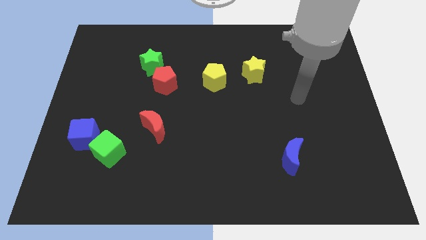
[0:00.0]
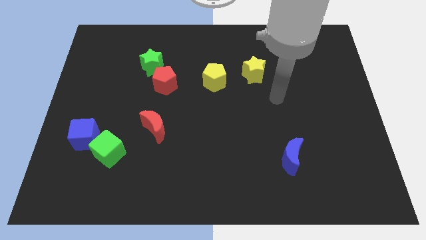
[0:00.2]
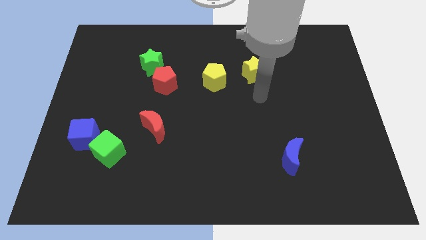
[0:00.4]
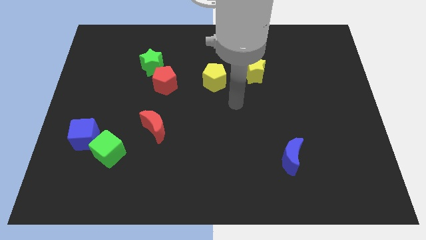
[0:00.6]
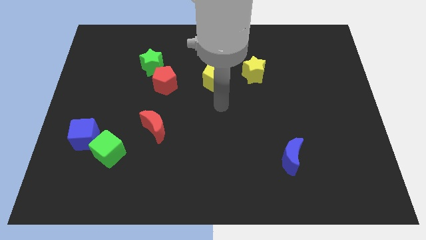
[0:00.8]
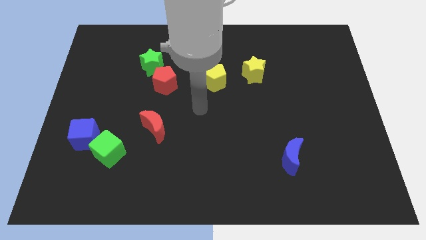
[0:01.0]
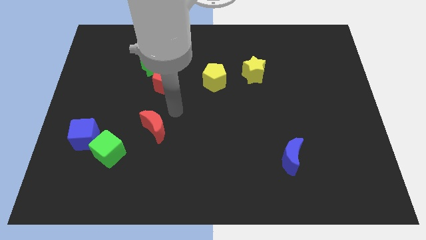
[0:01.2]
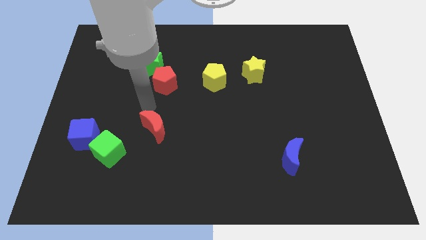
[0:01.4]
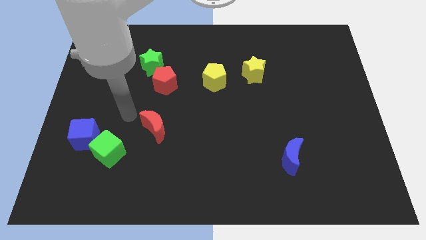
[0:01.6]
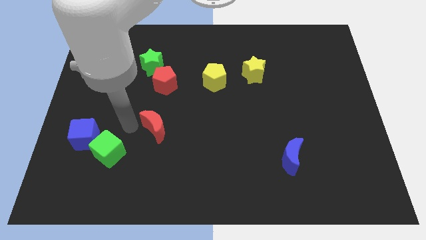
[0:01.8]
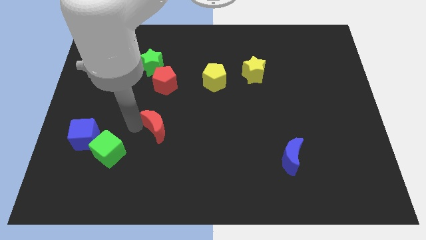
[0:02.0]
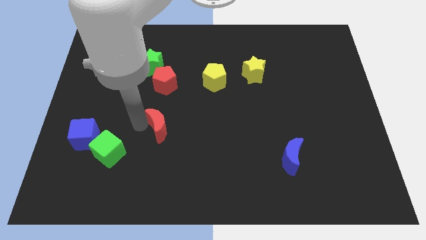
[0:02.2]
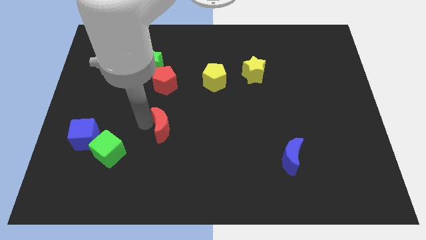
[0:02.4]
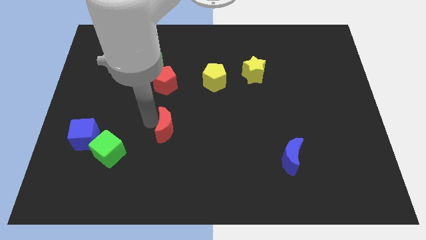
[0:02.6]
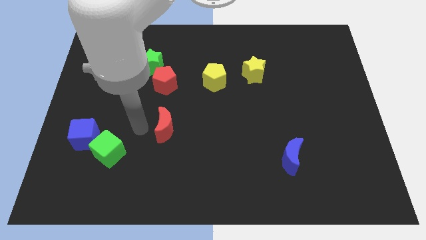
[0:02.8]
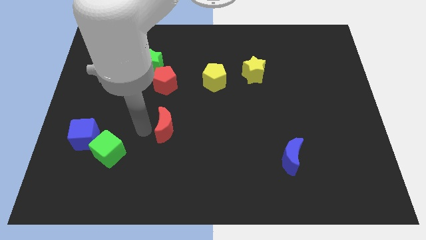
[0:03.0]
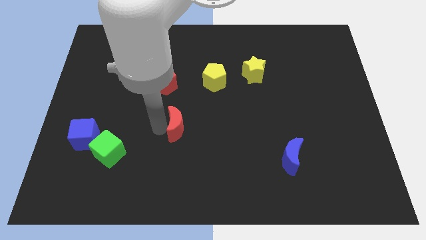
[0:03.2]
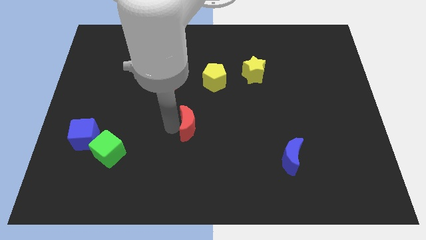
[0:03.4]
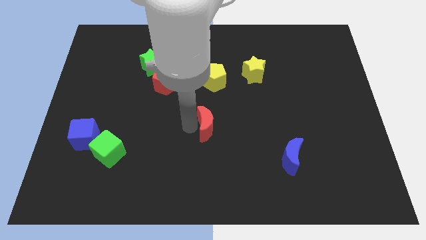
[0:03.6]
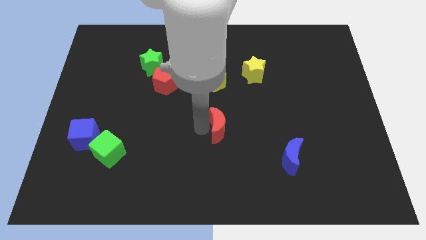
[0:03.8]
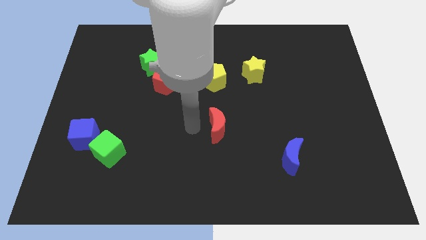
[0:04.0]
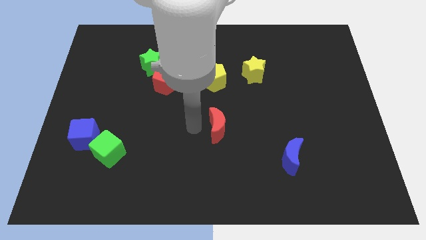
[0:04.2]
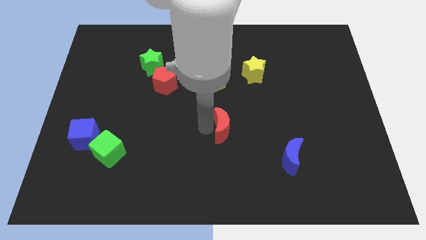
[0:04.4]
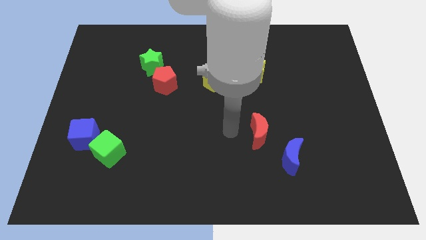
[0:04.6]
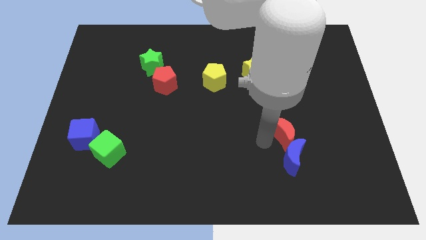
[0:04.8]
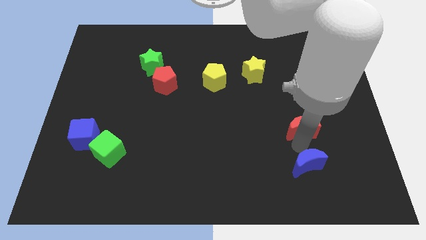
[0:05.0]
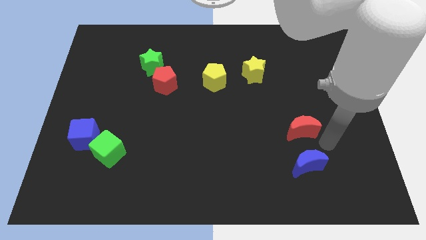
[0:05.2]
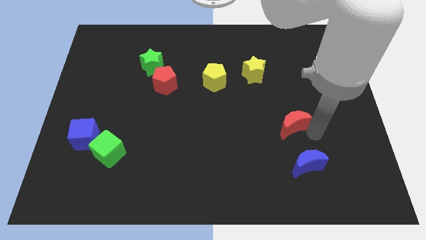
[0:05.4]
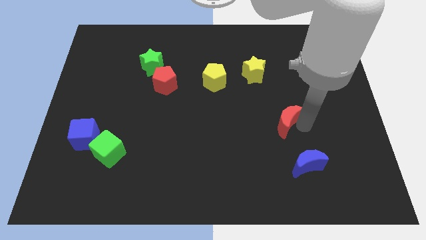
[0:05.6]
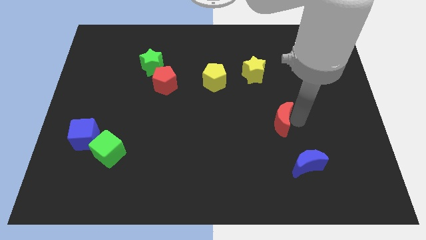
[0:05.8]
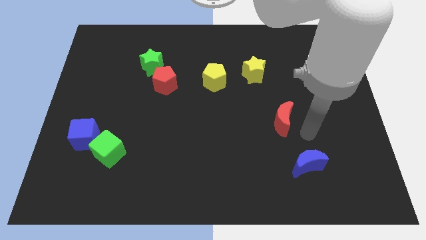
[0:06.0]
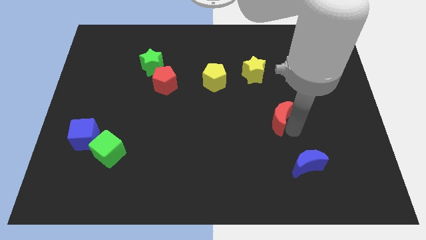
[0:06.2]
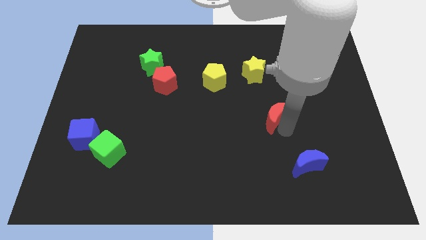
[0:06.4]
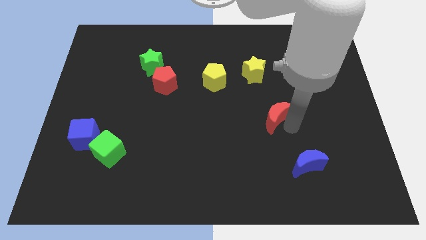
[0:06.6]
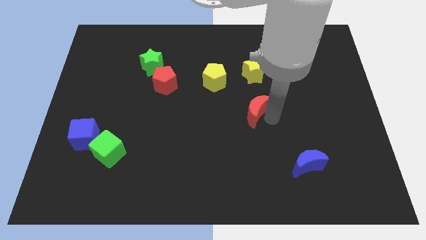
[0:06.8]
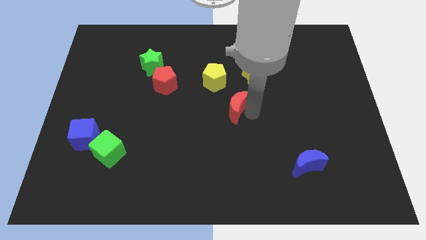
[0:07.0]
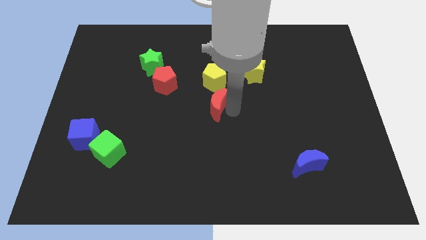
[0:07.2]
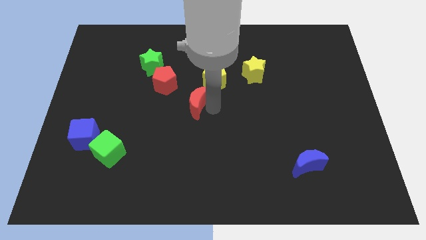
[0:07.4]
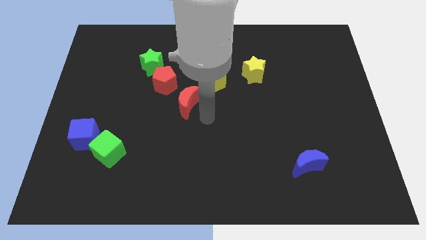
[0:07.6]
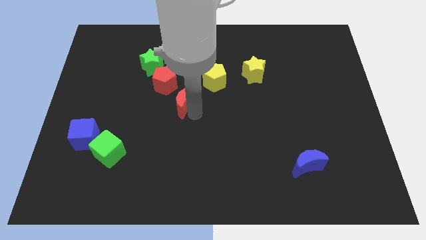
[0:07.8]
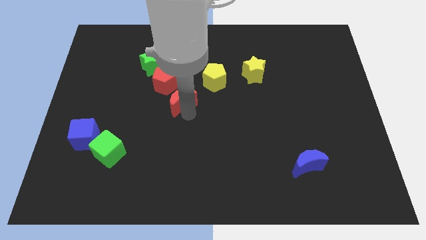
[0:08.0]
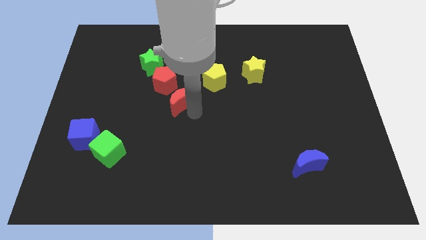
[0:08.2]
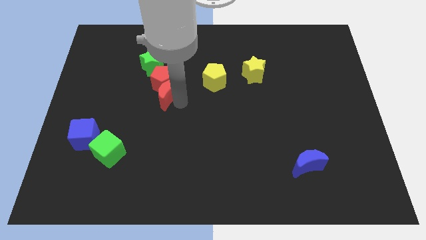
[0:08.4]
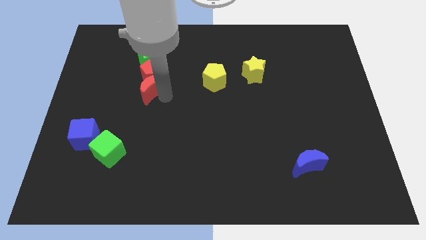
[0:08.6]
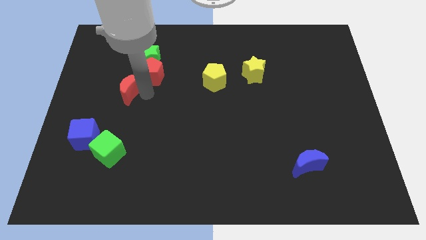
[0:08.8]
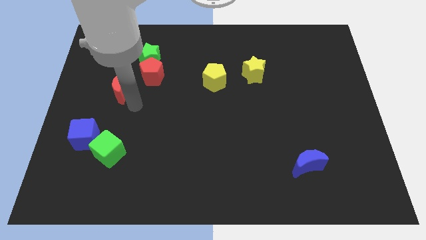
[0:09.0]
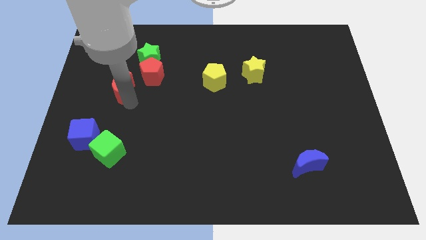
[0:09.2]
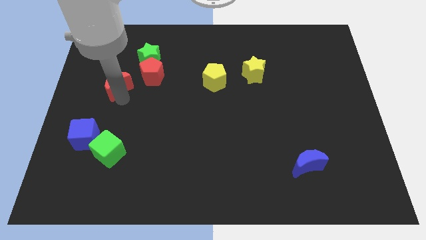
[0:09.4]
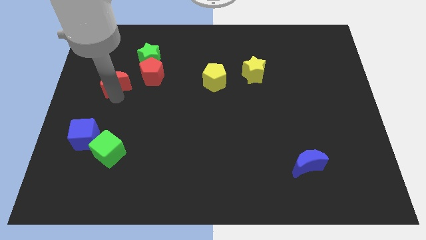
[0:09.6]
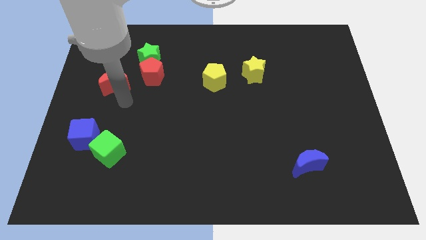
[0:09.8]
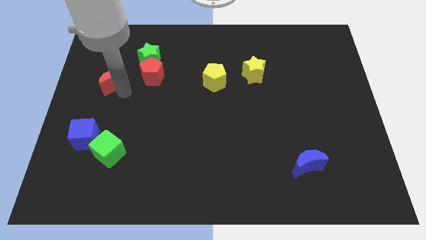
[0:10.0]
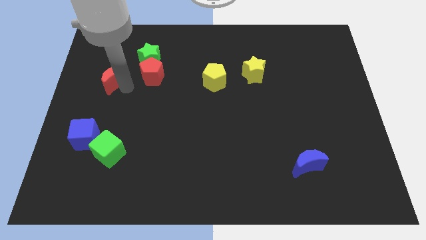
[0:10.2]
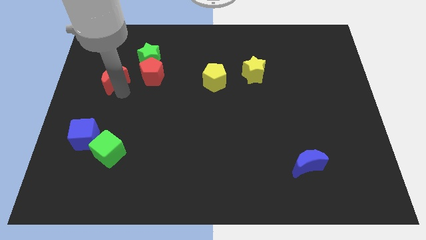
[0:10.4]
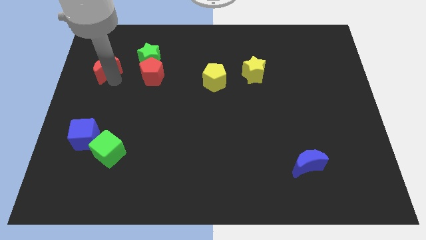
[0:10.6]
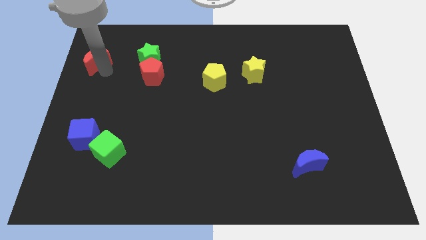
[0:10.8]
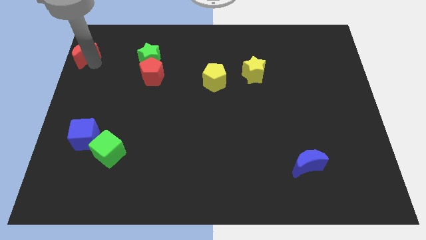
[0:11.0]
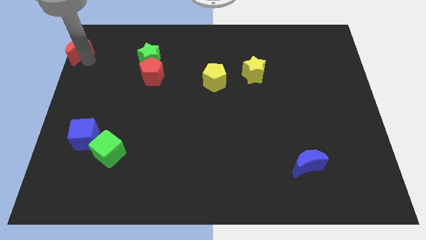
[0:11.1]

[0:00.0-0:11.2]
move the red moon to the top left corner

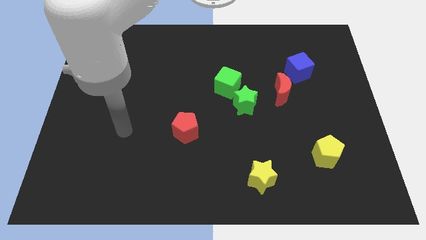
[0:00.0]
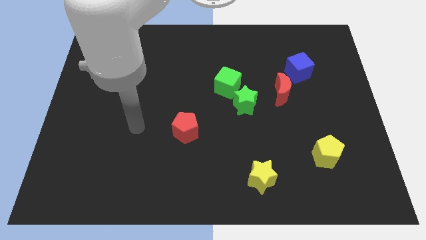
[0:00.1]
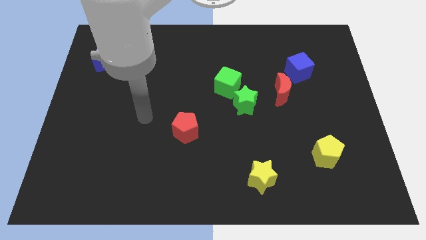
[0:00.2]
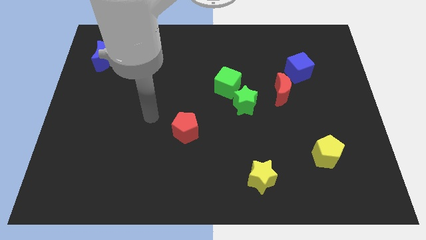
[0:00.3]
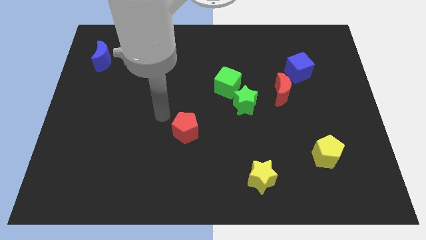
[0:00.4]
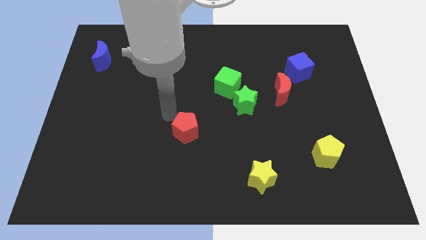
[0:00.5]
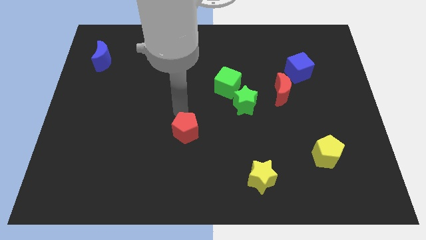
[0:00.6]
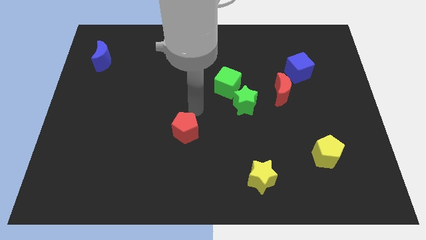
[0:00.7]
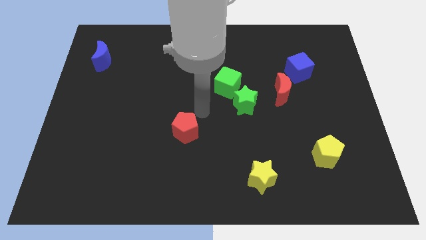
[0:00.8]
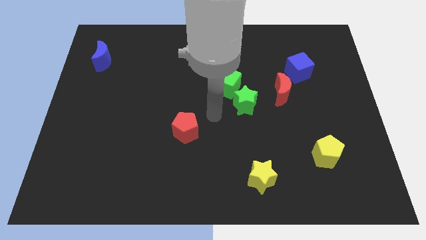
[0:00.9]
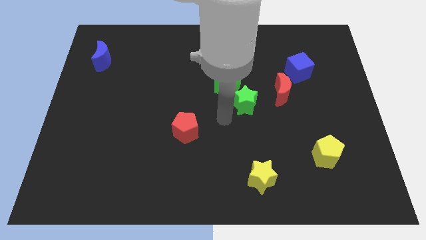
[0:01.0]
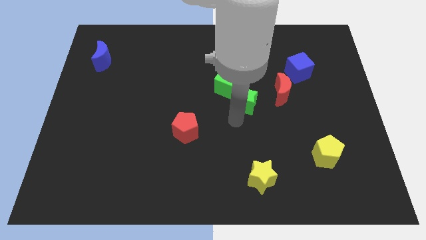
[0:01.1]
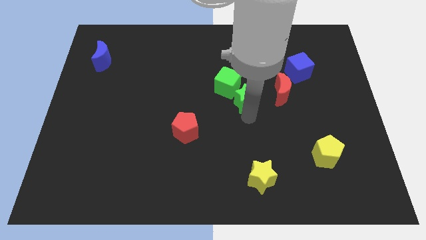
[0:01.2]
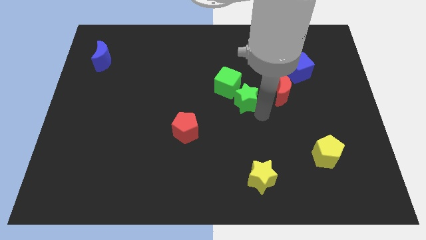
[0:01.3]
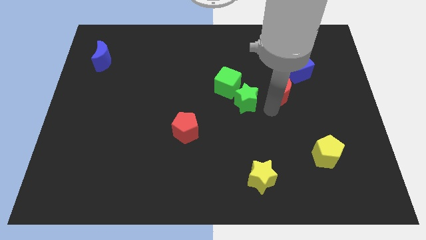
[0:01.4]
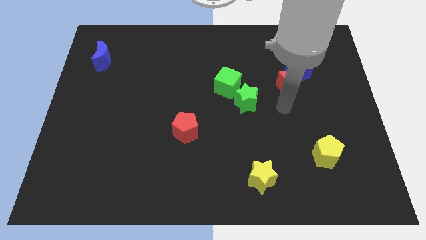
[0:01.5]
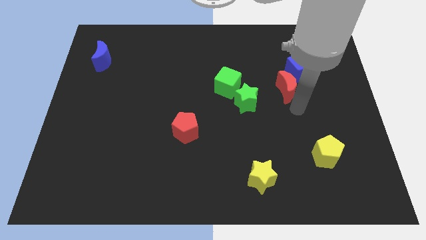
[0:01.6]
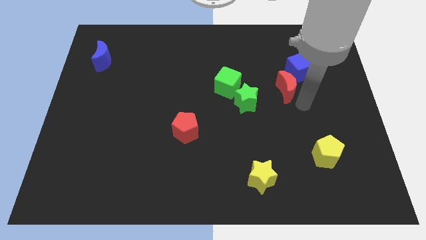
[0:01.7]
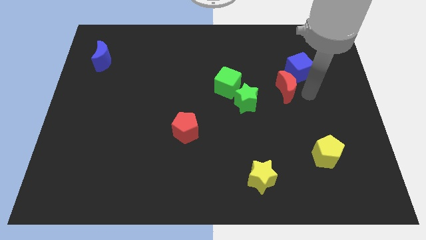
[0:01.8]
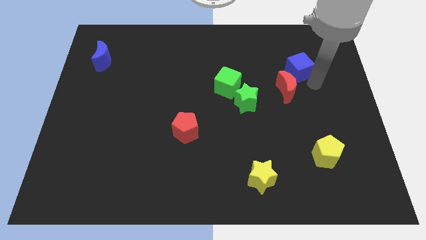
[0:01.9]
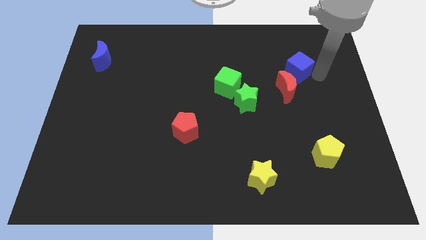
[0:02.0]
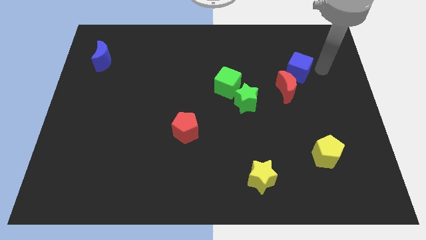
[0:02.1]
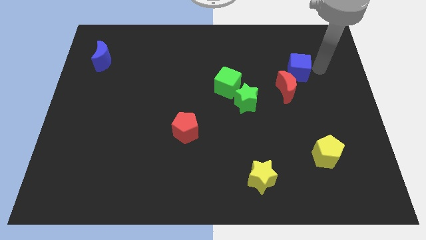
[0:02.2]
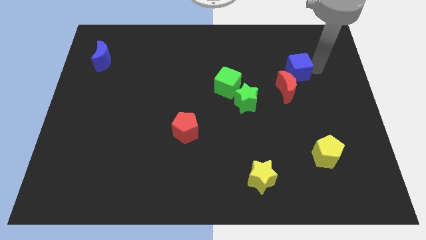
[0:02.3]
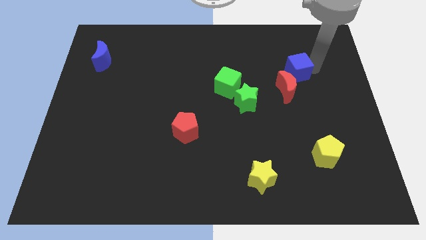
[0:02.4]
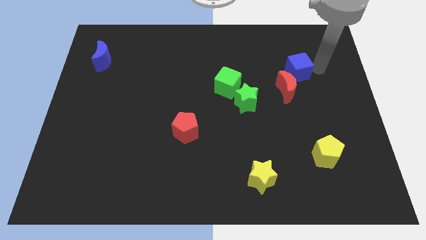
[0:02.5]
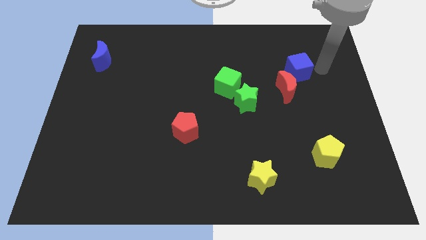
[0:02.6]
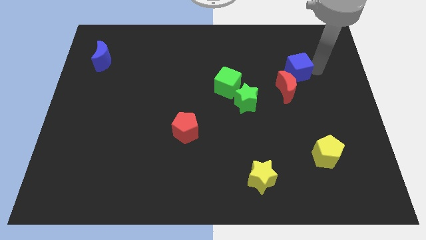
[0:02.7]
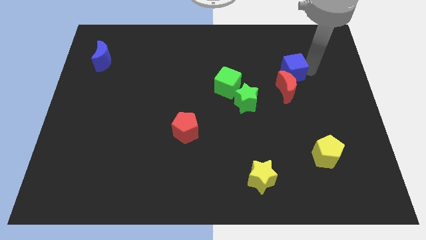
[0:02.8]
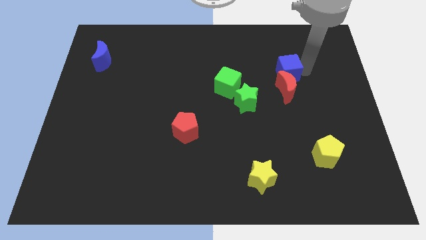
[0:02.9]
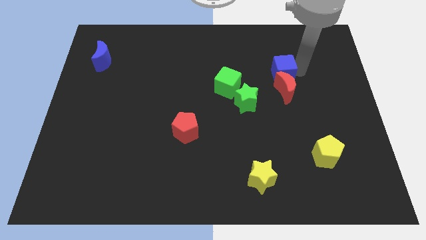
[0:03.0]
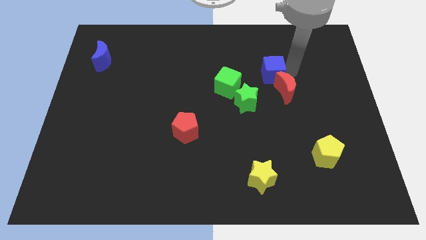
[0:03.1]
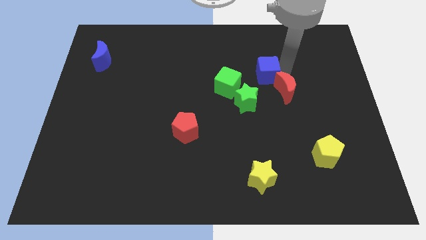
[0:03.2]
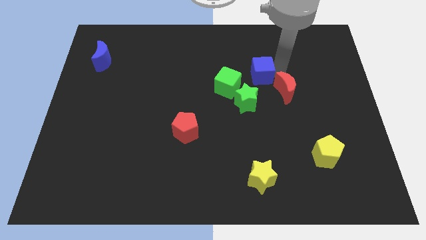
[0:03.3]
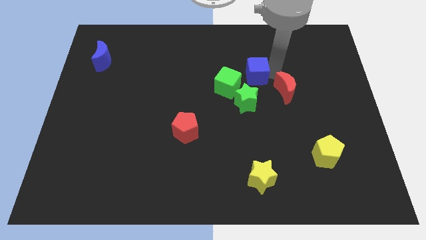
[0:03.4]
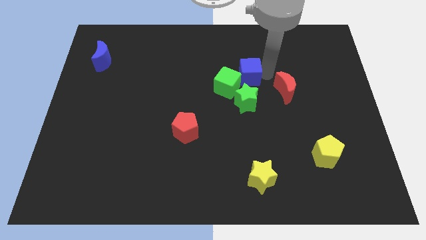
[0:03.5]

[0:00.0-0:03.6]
push the blue cube to the middle of the board
